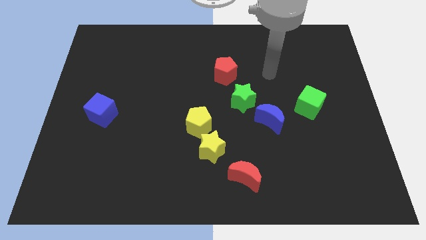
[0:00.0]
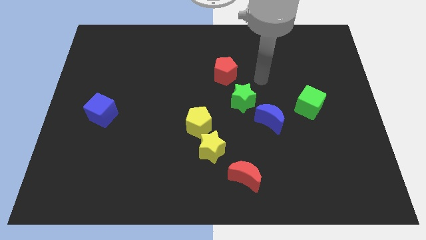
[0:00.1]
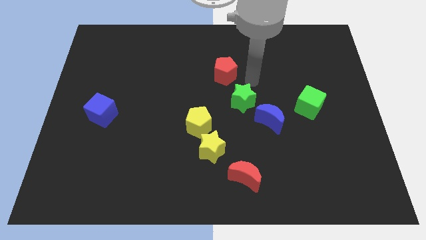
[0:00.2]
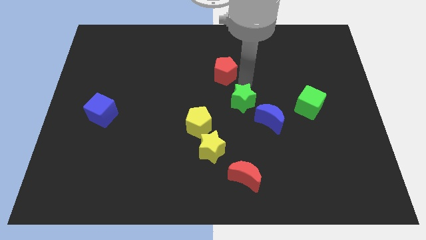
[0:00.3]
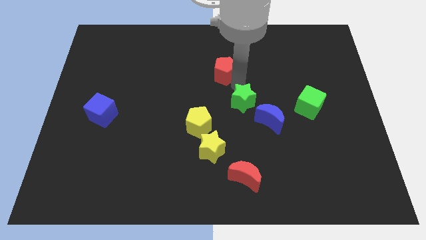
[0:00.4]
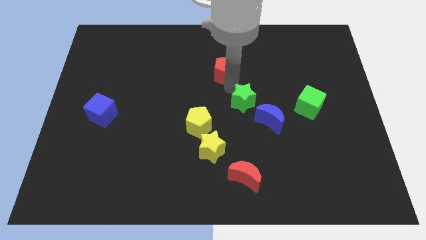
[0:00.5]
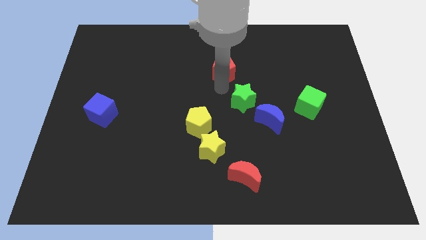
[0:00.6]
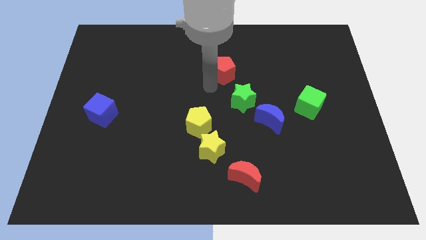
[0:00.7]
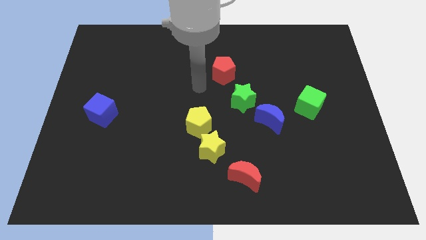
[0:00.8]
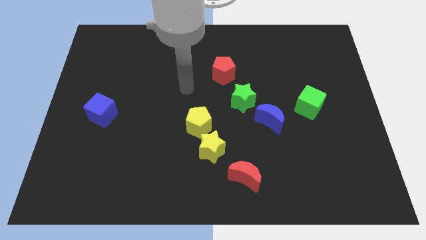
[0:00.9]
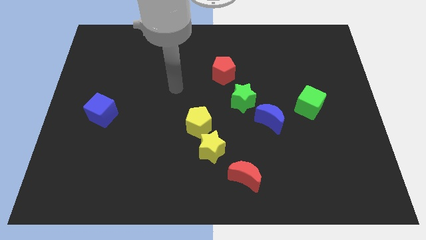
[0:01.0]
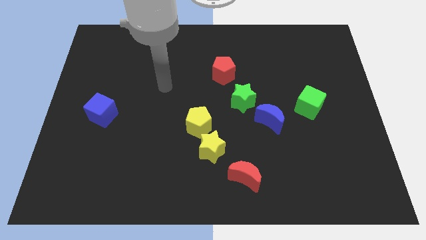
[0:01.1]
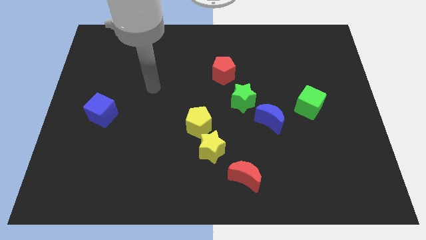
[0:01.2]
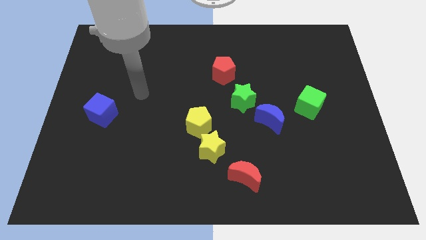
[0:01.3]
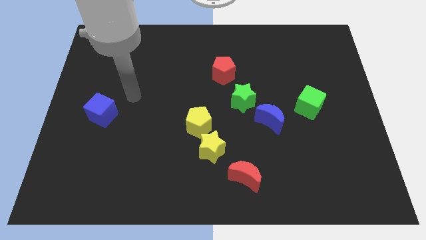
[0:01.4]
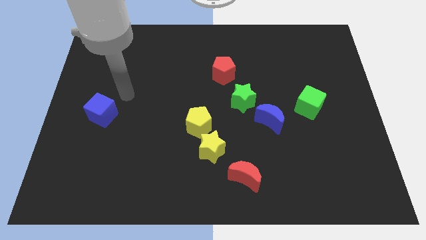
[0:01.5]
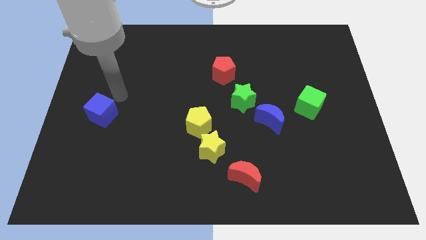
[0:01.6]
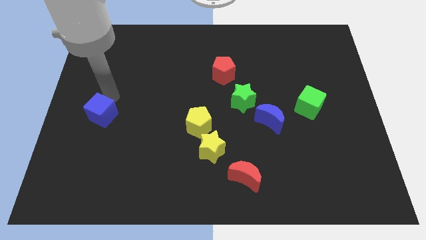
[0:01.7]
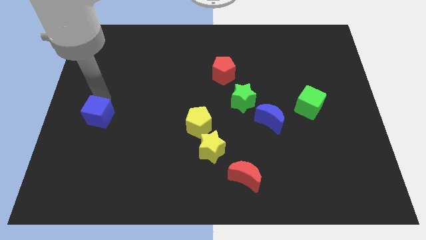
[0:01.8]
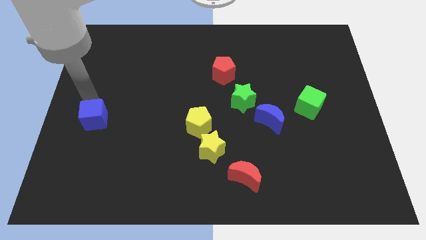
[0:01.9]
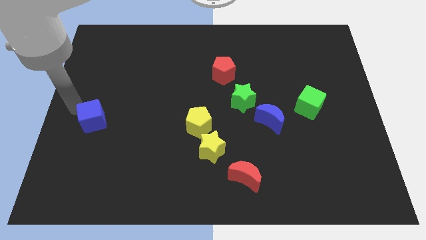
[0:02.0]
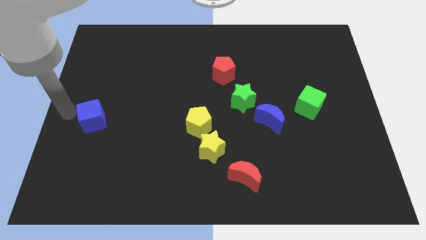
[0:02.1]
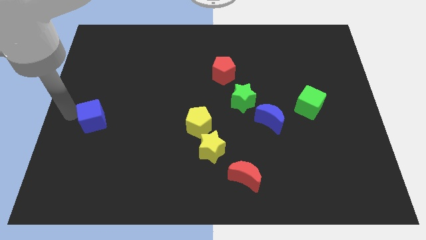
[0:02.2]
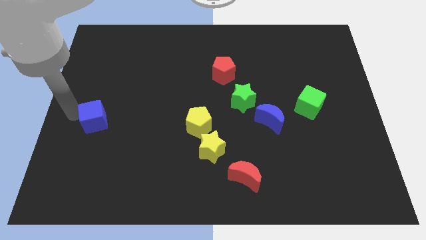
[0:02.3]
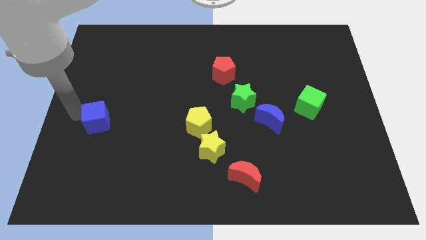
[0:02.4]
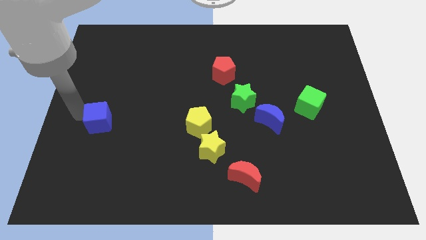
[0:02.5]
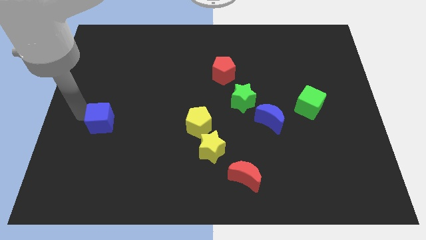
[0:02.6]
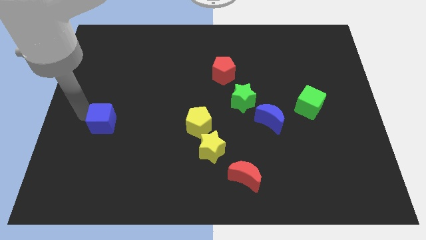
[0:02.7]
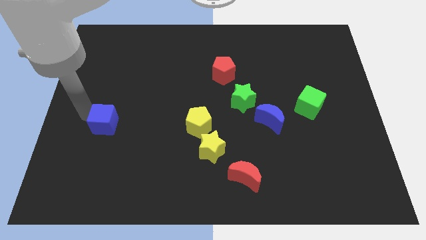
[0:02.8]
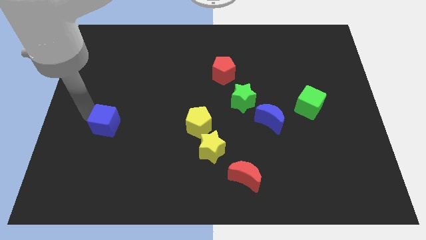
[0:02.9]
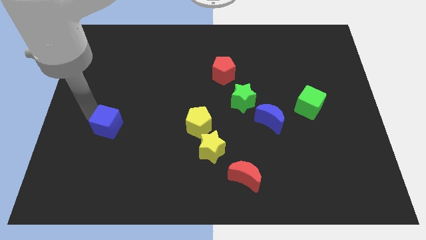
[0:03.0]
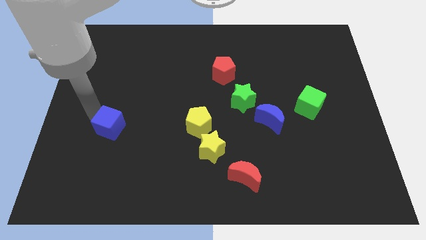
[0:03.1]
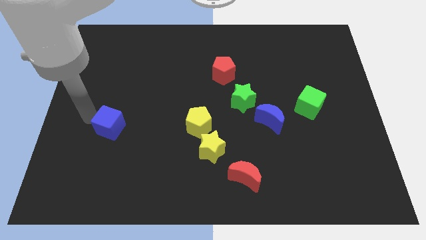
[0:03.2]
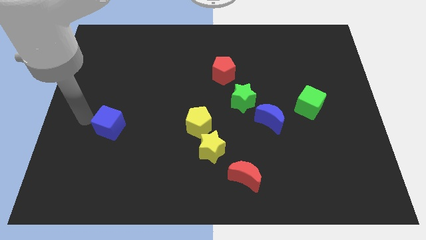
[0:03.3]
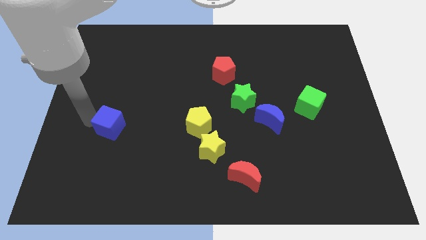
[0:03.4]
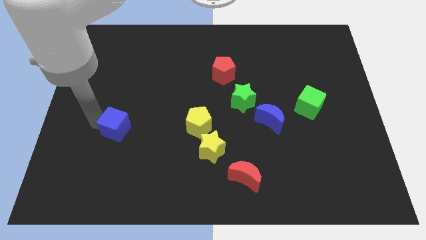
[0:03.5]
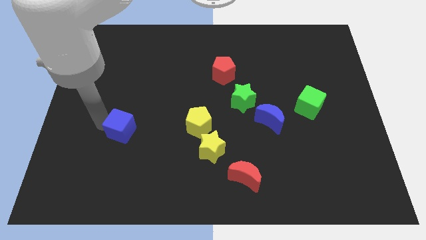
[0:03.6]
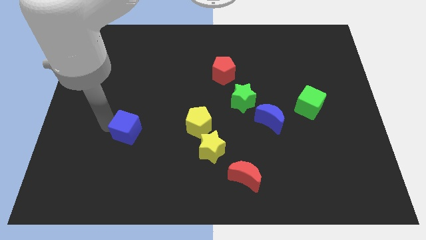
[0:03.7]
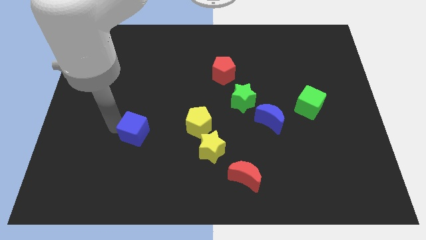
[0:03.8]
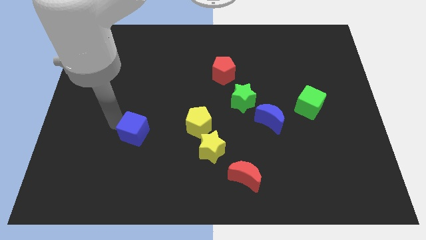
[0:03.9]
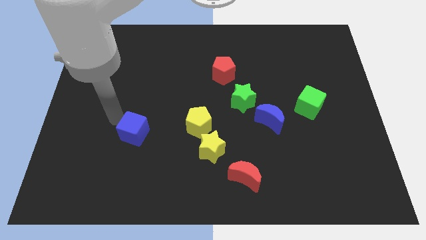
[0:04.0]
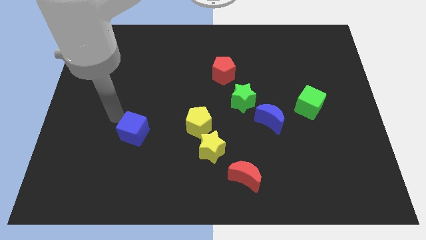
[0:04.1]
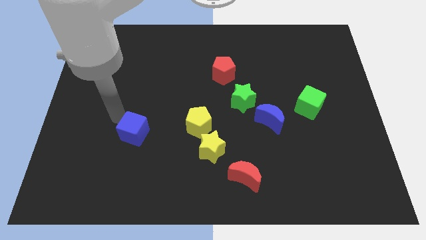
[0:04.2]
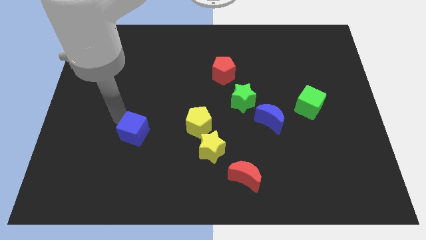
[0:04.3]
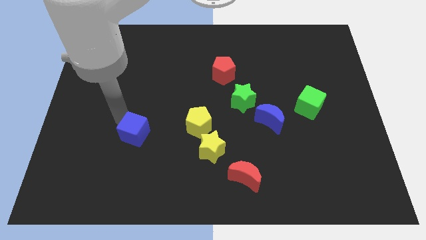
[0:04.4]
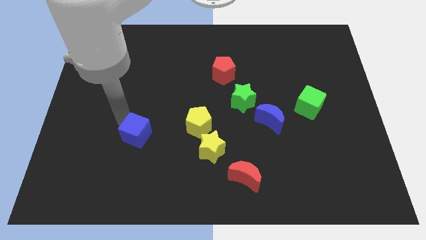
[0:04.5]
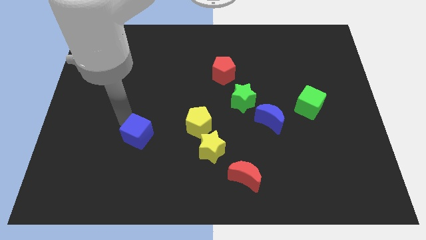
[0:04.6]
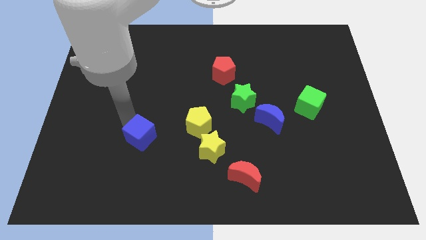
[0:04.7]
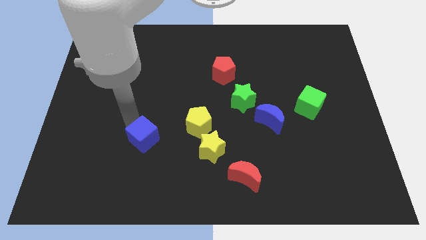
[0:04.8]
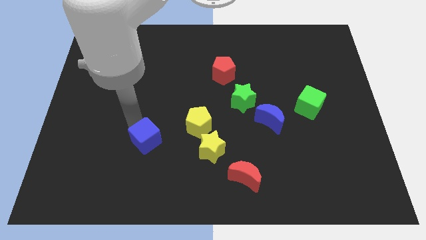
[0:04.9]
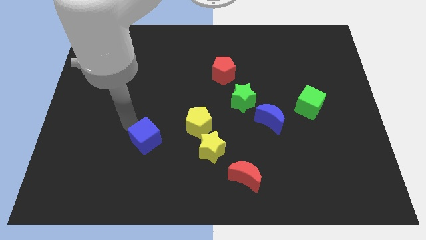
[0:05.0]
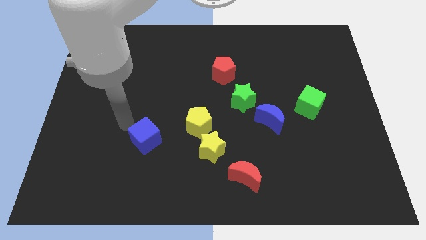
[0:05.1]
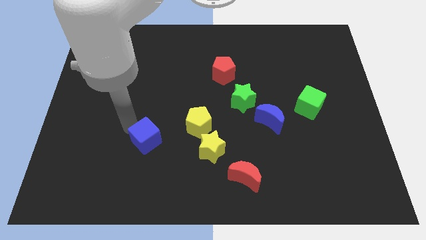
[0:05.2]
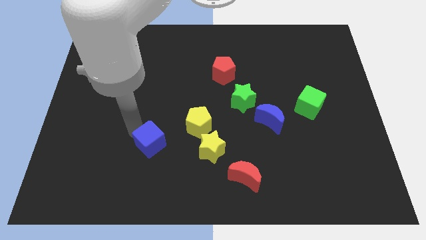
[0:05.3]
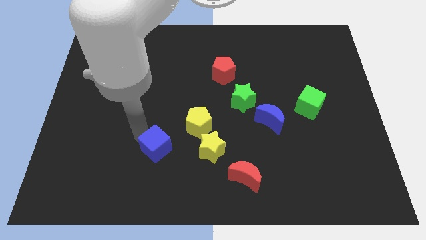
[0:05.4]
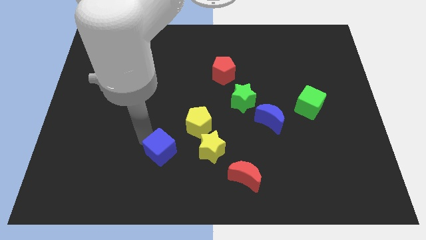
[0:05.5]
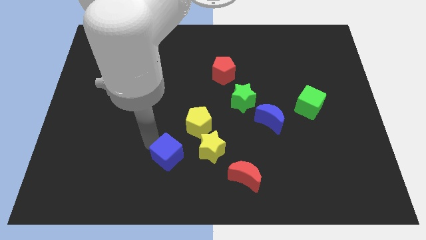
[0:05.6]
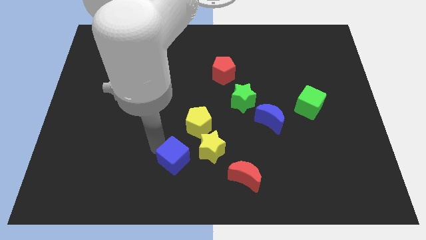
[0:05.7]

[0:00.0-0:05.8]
move the blue cube to the bottom left side of the yellow star

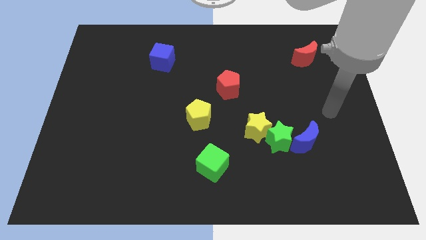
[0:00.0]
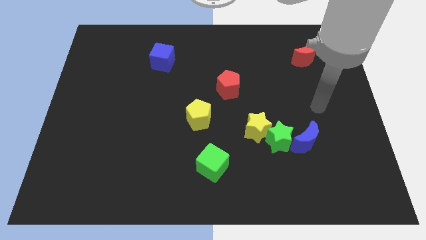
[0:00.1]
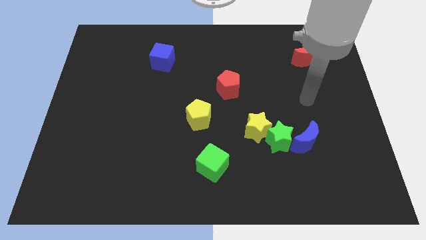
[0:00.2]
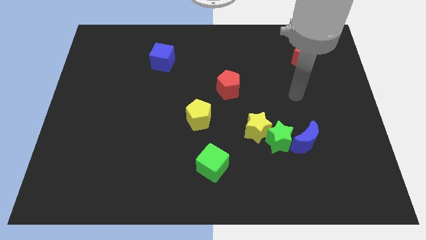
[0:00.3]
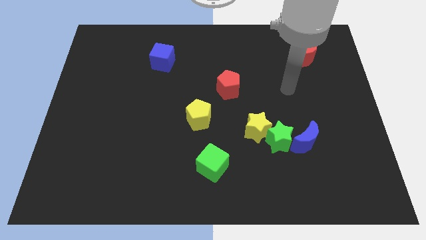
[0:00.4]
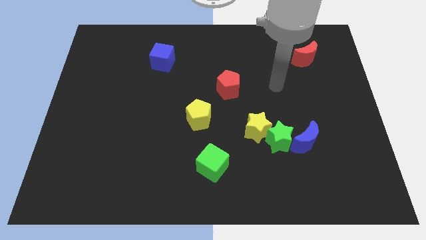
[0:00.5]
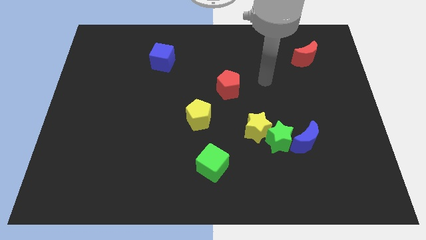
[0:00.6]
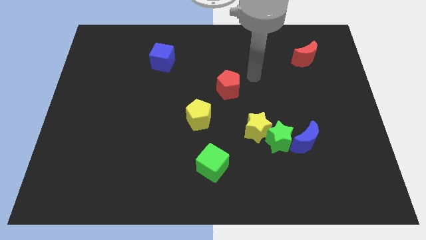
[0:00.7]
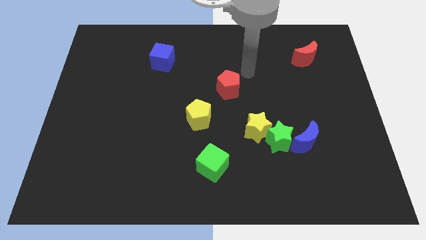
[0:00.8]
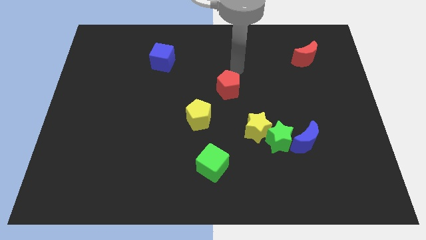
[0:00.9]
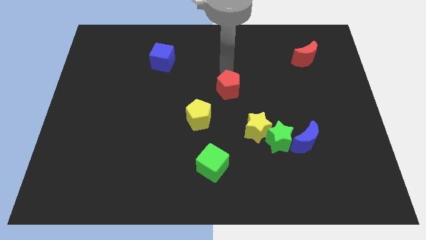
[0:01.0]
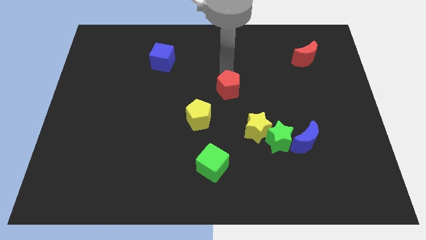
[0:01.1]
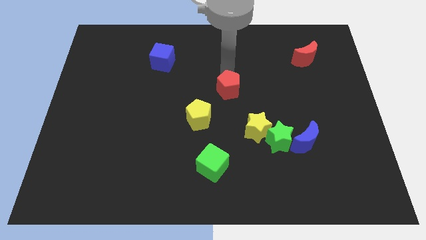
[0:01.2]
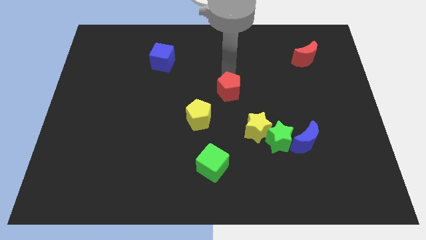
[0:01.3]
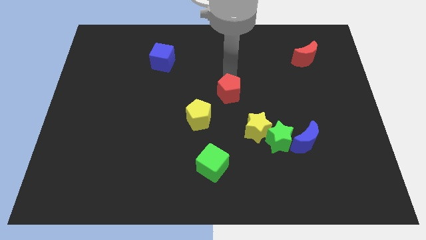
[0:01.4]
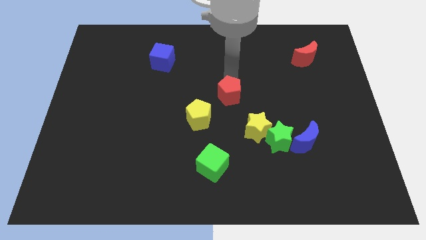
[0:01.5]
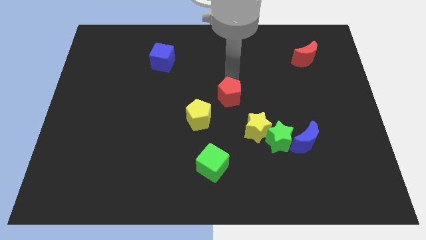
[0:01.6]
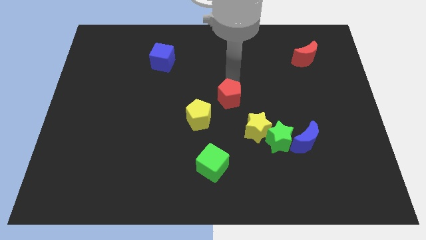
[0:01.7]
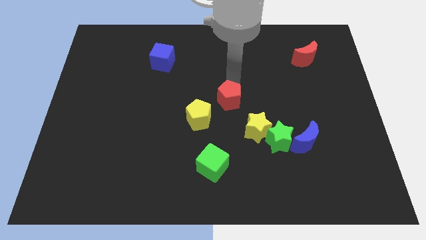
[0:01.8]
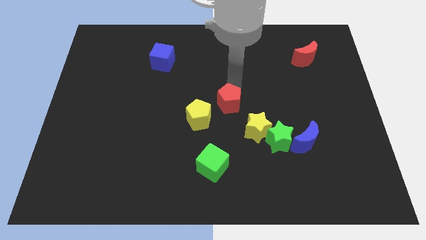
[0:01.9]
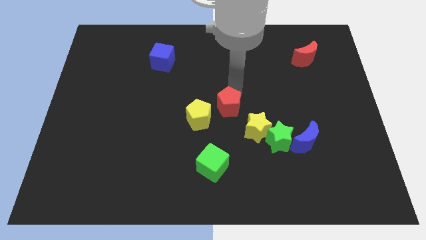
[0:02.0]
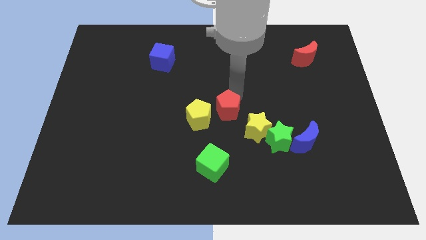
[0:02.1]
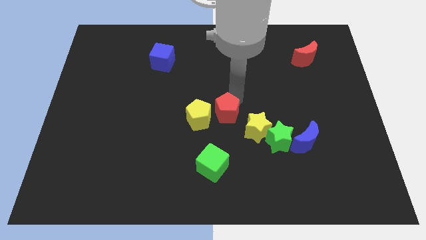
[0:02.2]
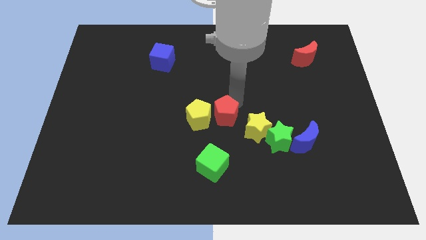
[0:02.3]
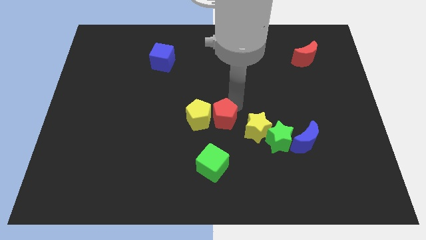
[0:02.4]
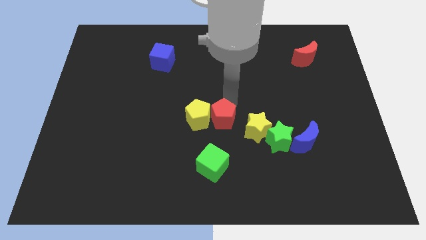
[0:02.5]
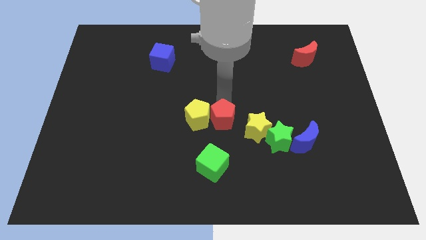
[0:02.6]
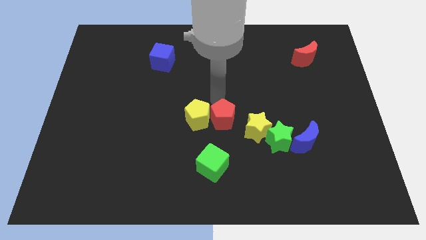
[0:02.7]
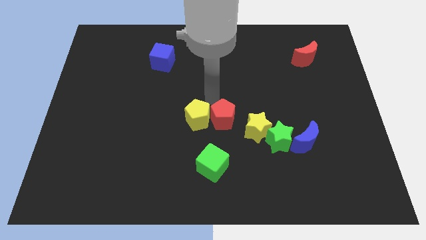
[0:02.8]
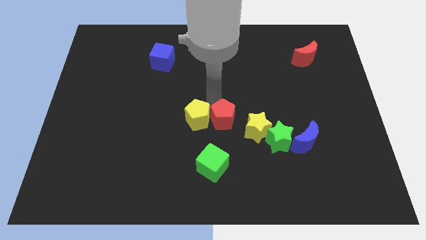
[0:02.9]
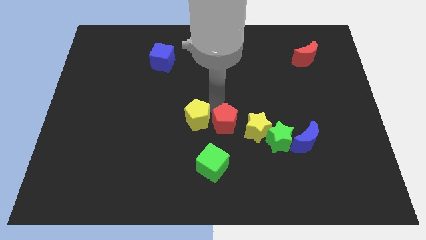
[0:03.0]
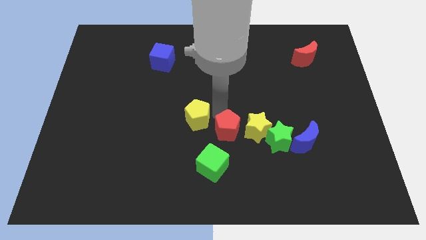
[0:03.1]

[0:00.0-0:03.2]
put the red pentagon to the top right of the green cube
